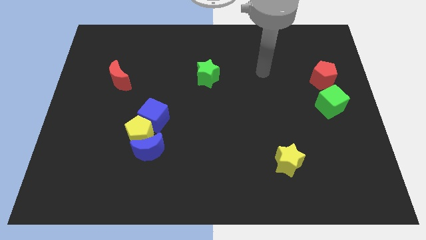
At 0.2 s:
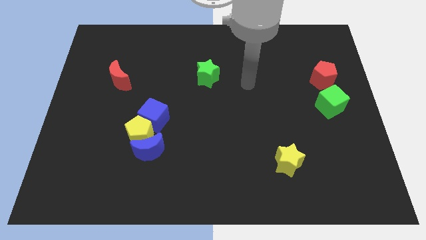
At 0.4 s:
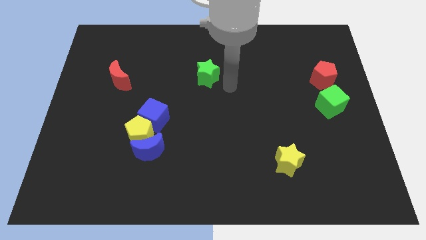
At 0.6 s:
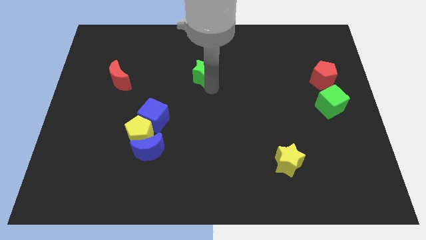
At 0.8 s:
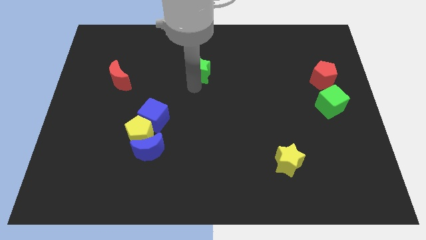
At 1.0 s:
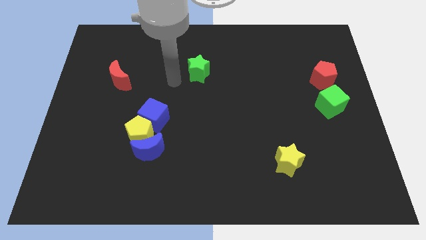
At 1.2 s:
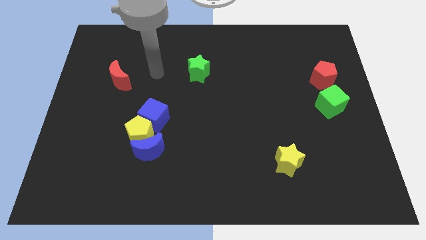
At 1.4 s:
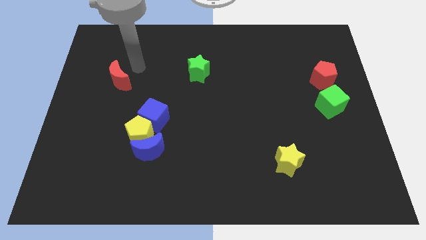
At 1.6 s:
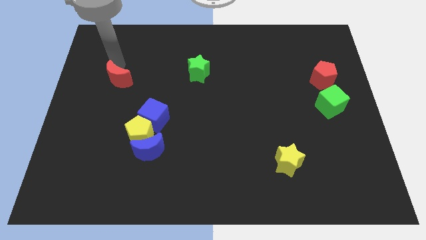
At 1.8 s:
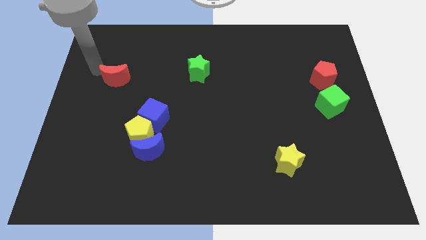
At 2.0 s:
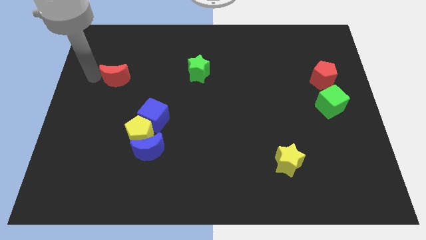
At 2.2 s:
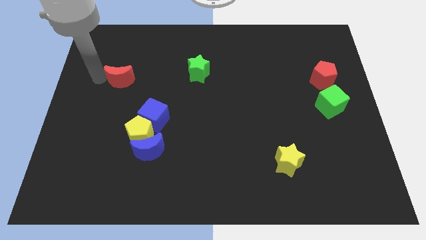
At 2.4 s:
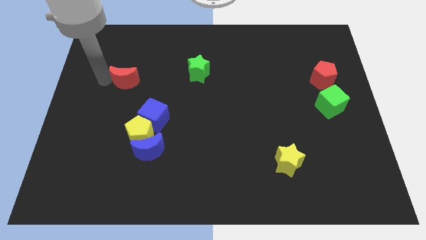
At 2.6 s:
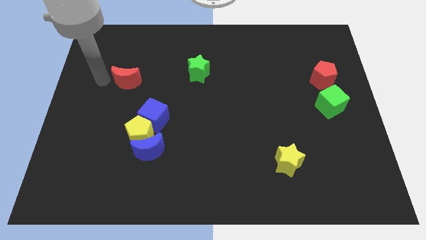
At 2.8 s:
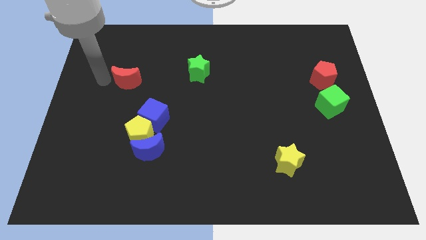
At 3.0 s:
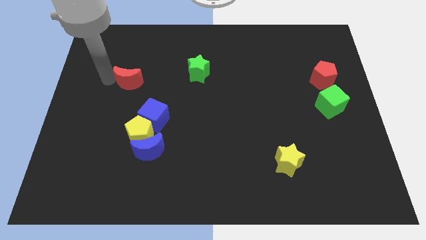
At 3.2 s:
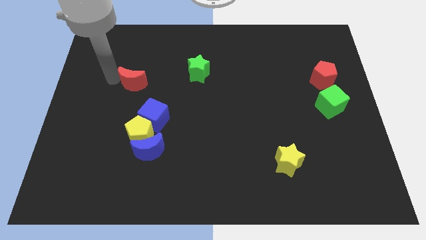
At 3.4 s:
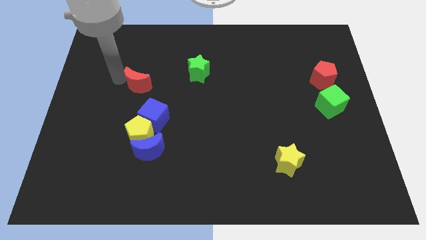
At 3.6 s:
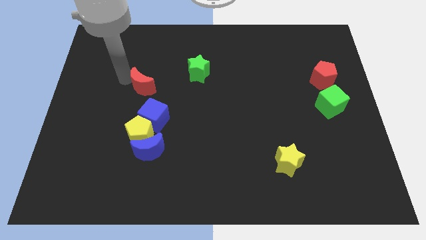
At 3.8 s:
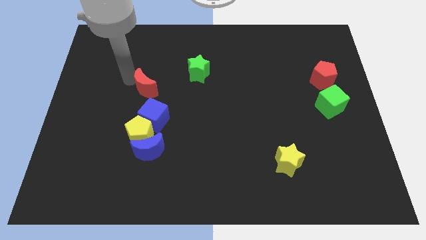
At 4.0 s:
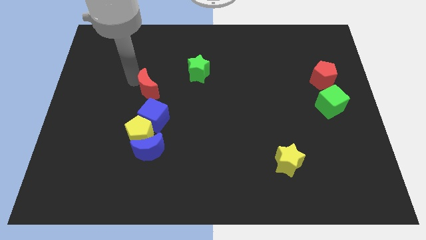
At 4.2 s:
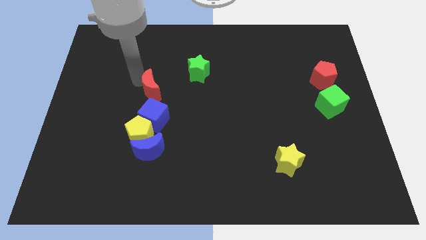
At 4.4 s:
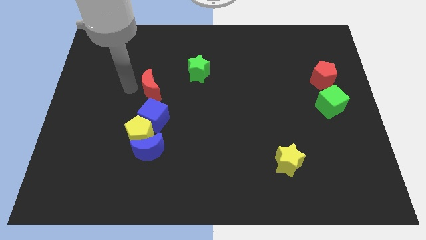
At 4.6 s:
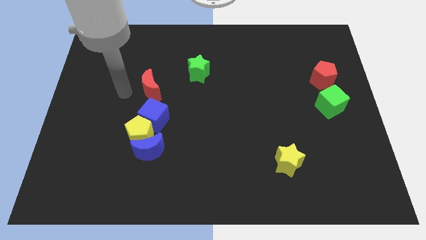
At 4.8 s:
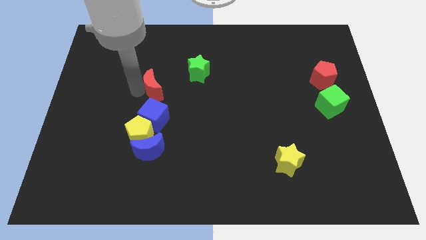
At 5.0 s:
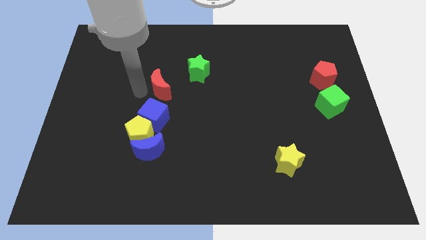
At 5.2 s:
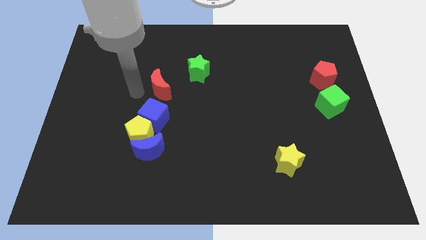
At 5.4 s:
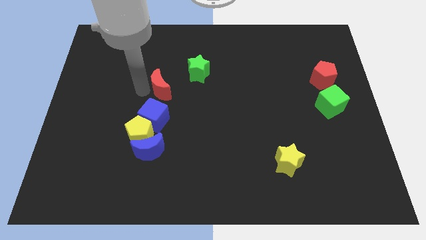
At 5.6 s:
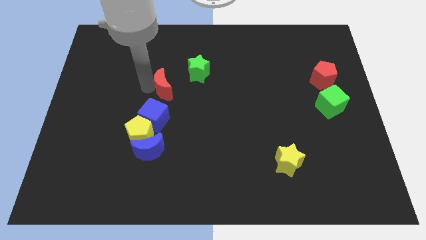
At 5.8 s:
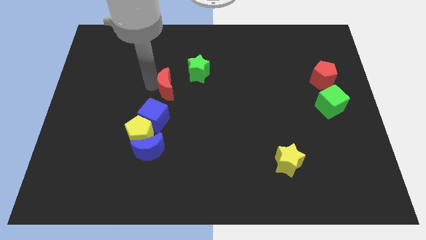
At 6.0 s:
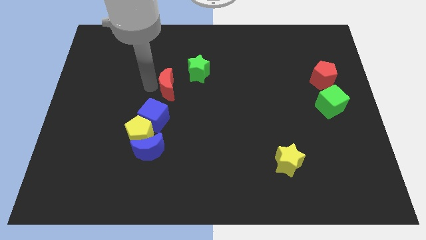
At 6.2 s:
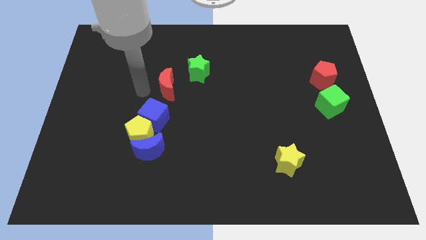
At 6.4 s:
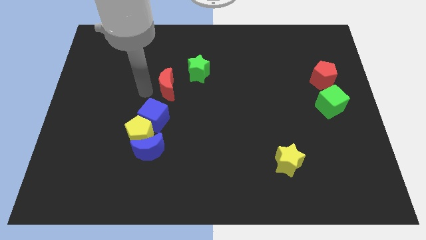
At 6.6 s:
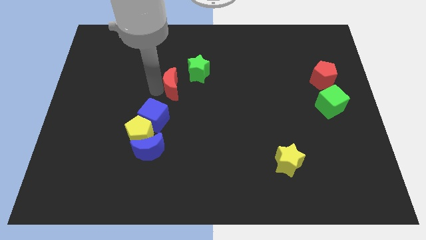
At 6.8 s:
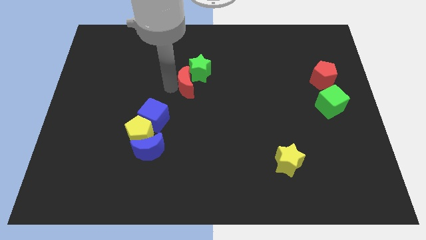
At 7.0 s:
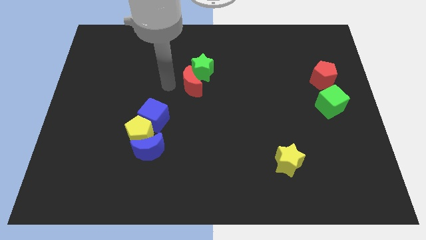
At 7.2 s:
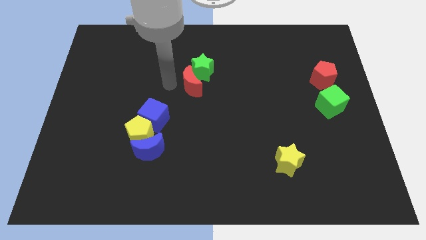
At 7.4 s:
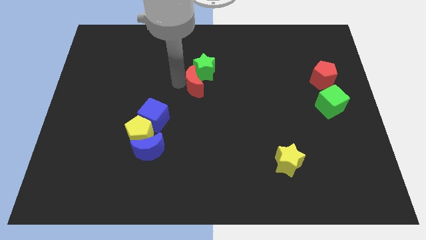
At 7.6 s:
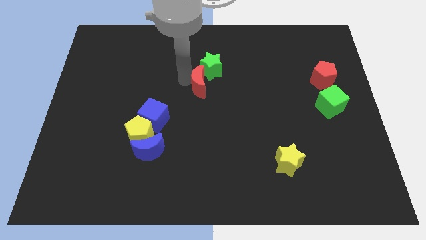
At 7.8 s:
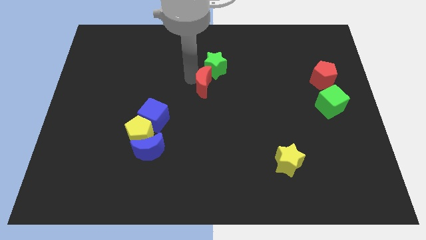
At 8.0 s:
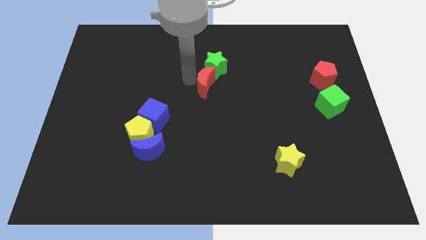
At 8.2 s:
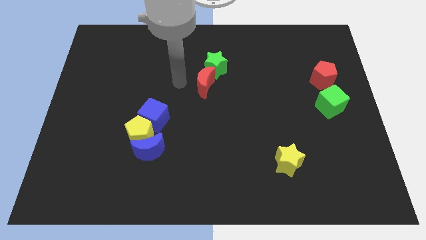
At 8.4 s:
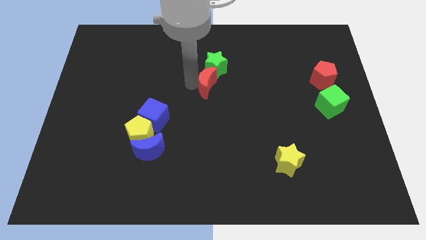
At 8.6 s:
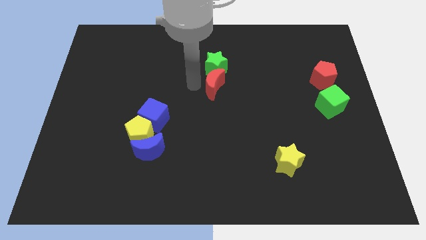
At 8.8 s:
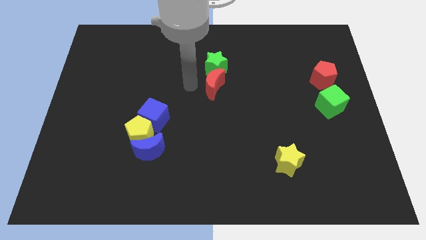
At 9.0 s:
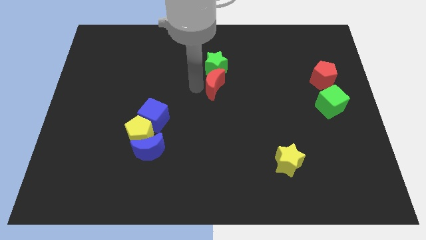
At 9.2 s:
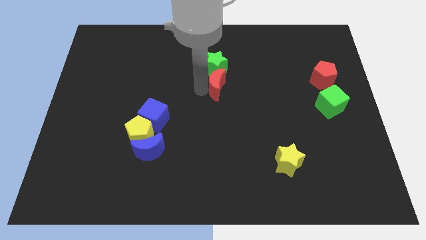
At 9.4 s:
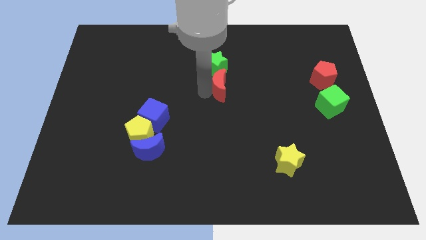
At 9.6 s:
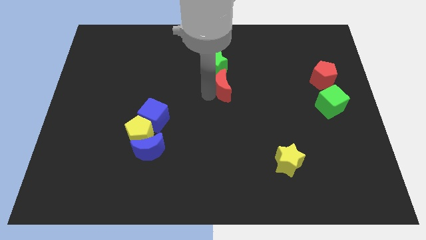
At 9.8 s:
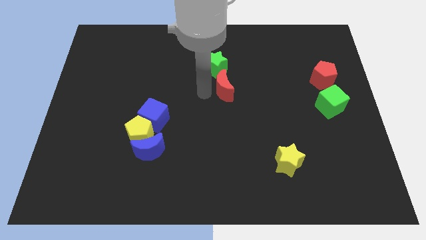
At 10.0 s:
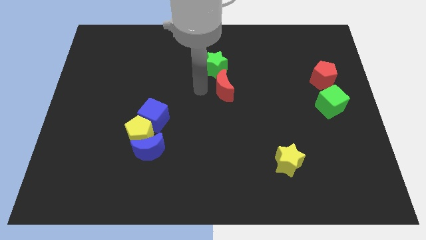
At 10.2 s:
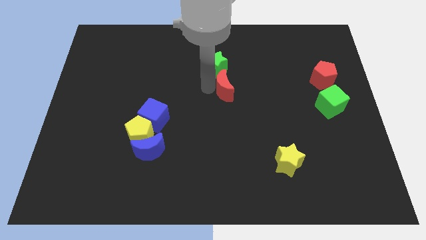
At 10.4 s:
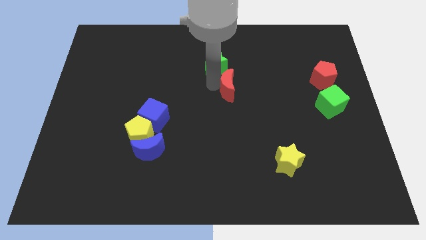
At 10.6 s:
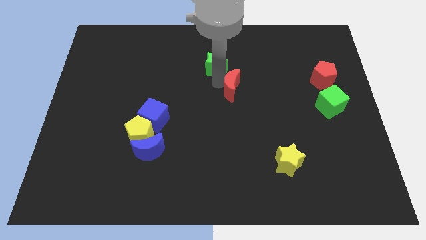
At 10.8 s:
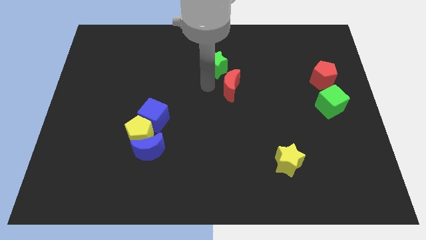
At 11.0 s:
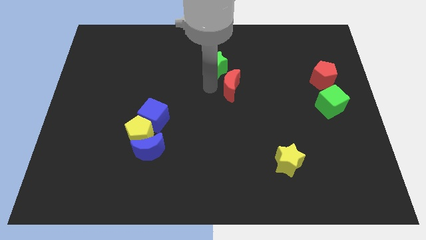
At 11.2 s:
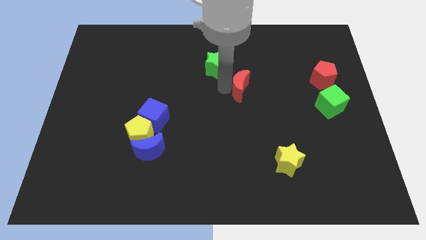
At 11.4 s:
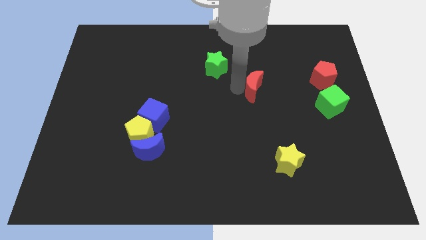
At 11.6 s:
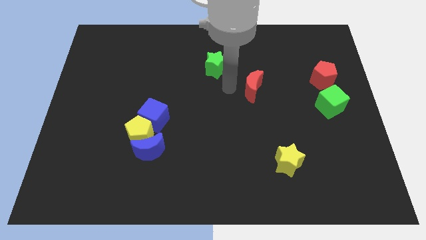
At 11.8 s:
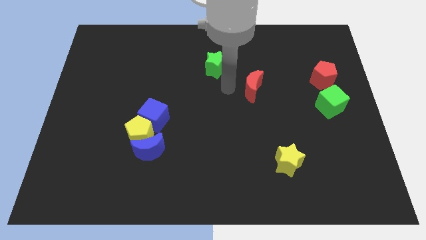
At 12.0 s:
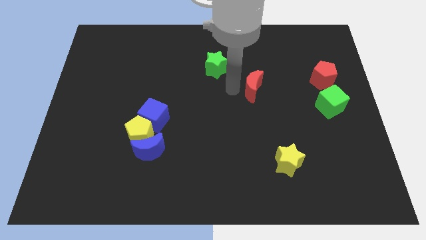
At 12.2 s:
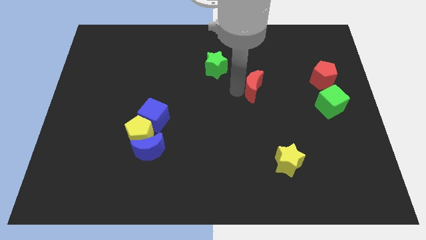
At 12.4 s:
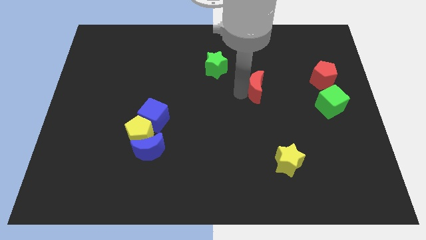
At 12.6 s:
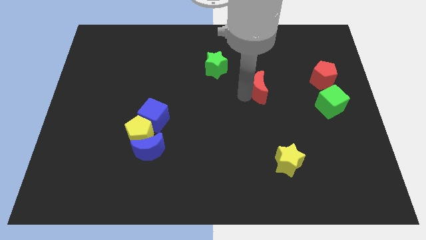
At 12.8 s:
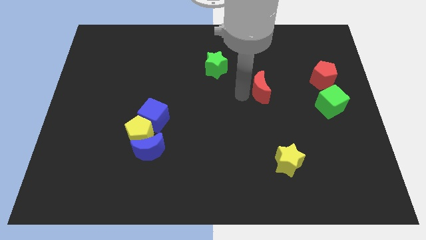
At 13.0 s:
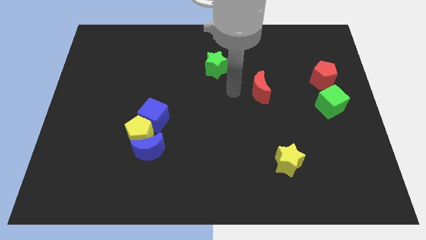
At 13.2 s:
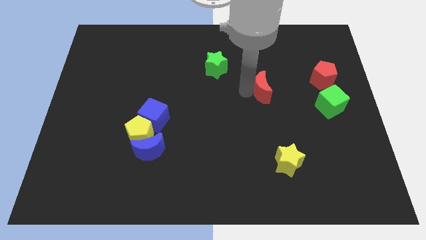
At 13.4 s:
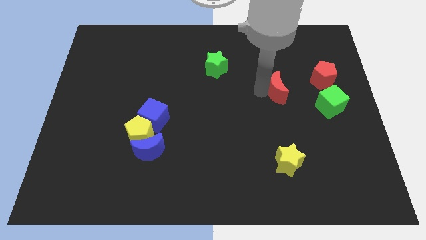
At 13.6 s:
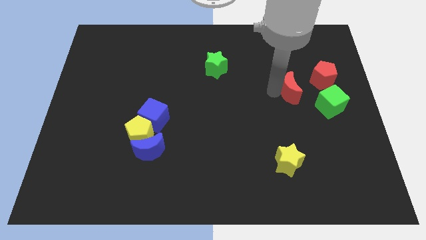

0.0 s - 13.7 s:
move the red moon diagonally down and to the left of the red pentagon

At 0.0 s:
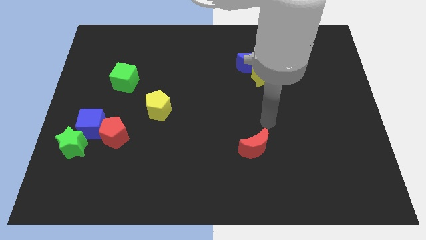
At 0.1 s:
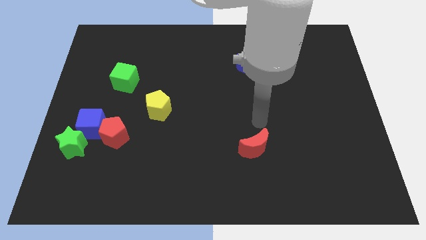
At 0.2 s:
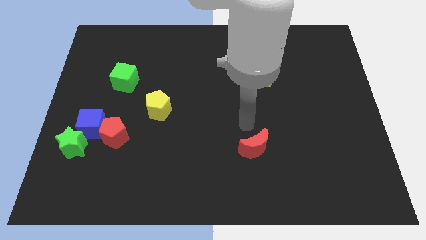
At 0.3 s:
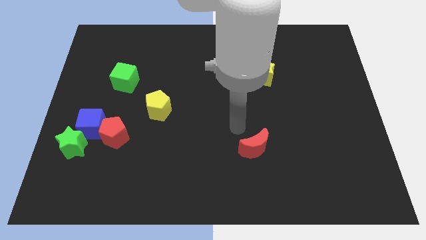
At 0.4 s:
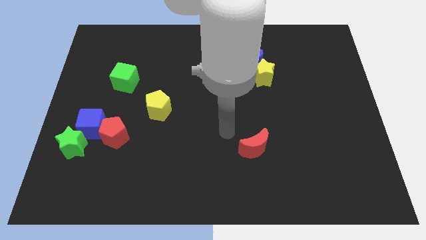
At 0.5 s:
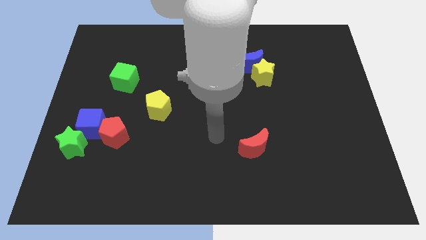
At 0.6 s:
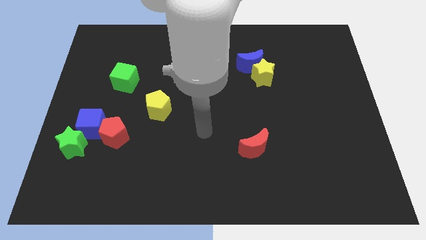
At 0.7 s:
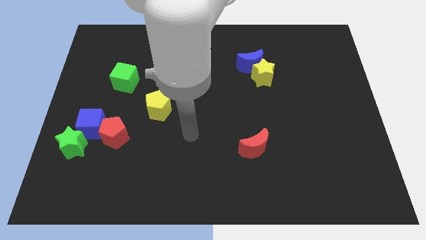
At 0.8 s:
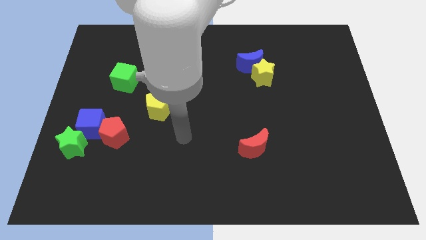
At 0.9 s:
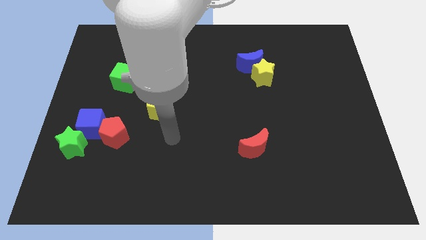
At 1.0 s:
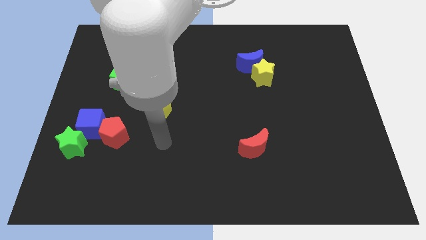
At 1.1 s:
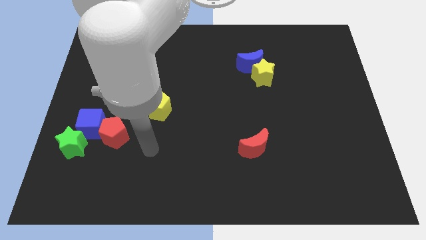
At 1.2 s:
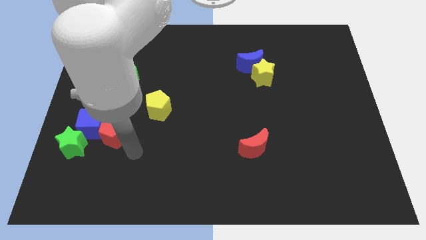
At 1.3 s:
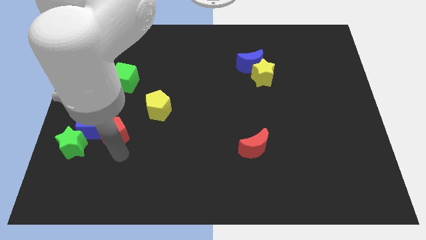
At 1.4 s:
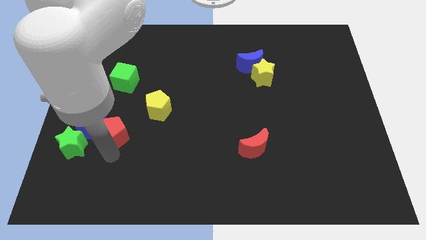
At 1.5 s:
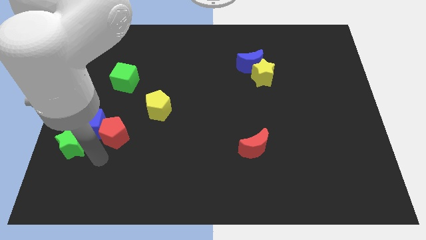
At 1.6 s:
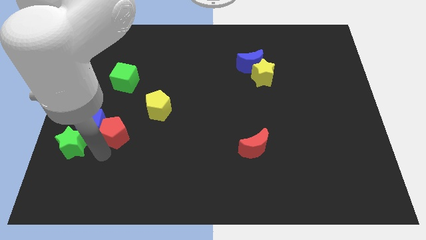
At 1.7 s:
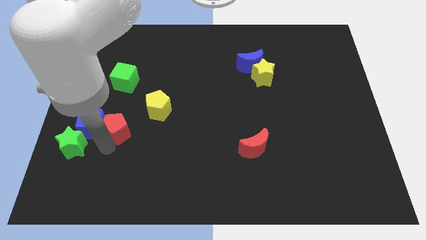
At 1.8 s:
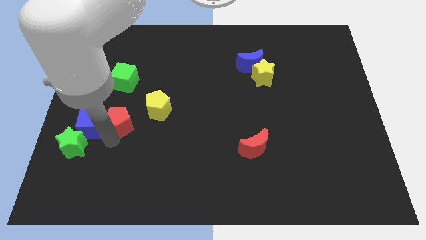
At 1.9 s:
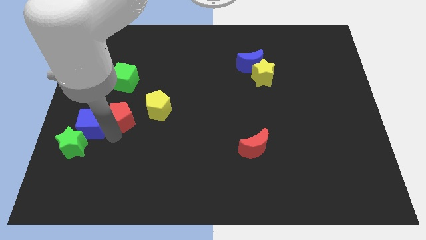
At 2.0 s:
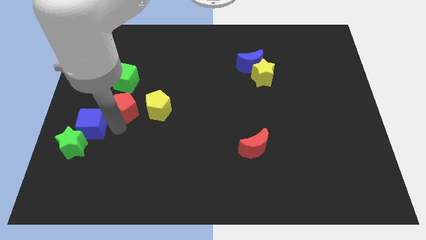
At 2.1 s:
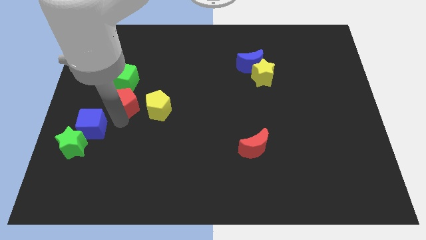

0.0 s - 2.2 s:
slide the red pentagon to the top left side of the yellow pentagon
